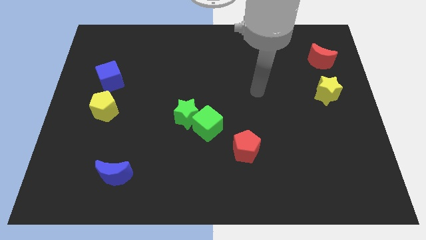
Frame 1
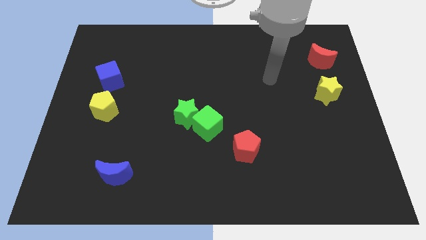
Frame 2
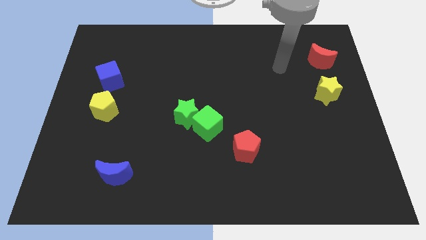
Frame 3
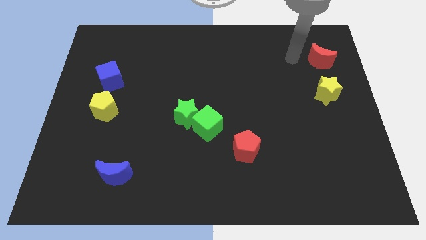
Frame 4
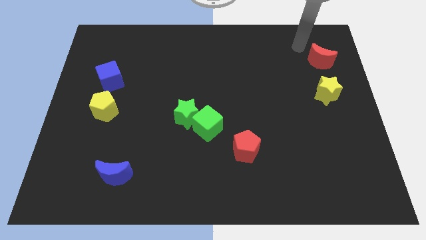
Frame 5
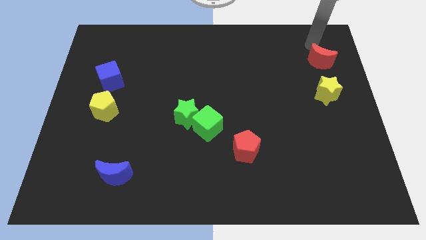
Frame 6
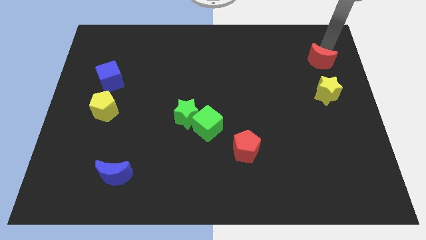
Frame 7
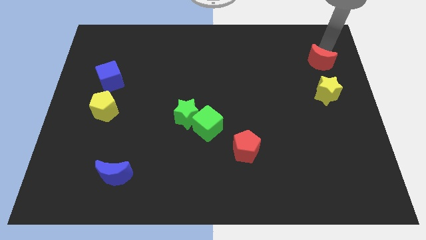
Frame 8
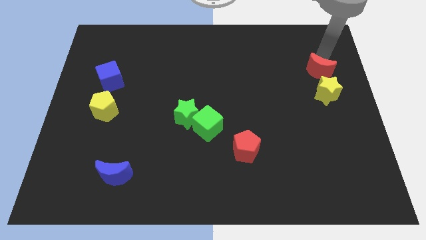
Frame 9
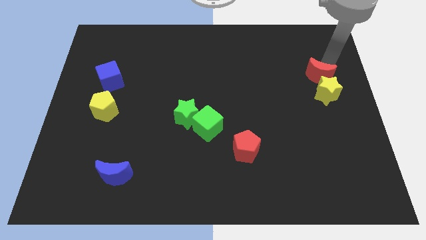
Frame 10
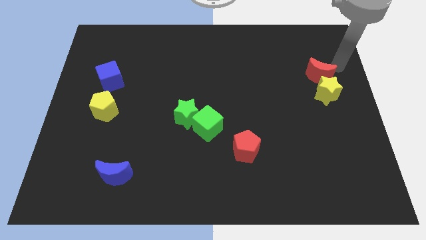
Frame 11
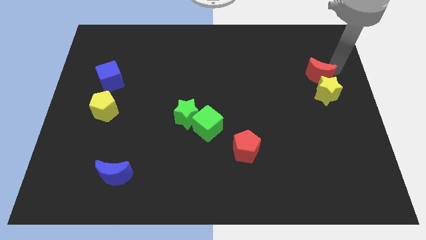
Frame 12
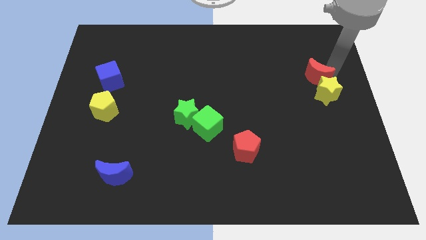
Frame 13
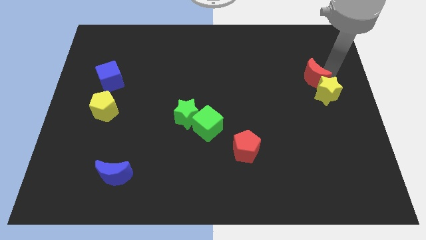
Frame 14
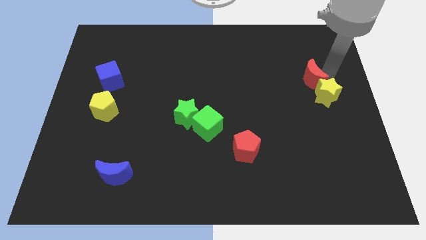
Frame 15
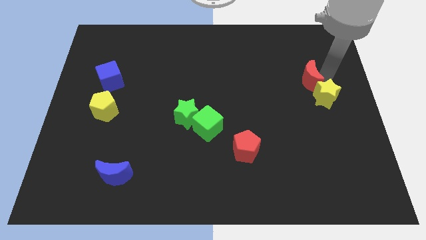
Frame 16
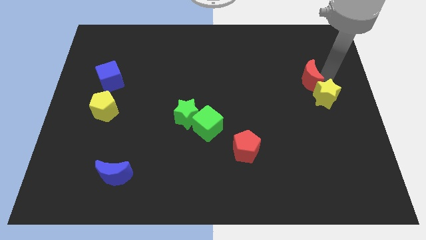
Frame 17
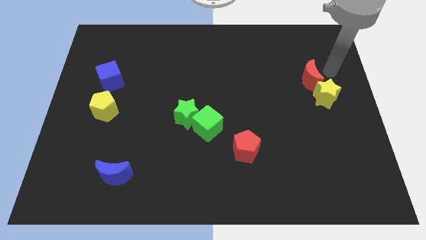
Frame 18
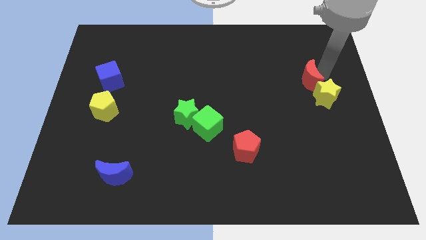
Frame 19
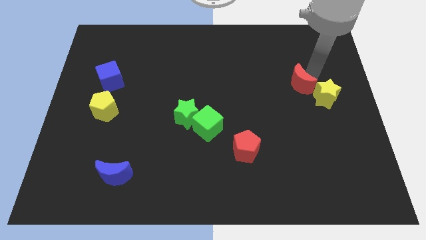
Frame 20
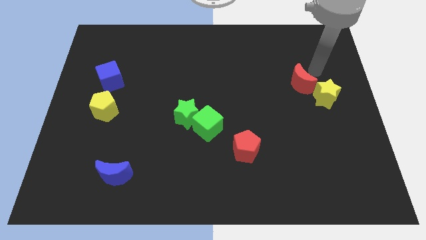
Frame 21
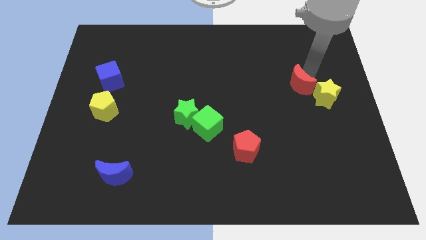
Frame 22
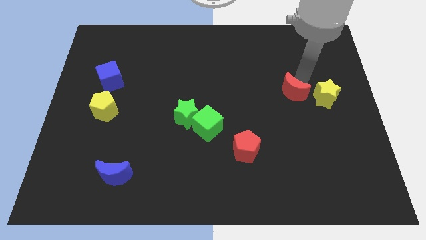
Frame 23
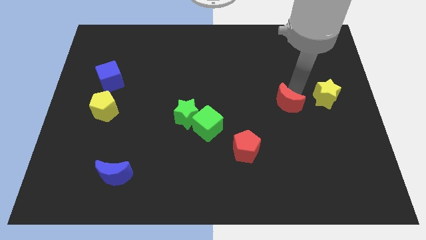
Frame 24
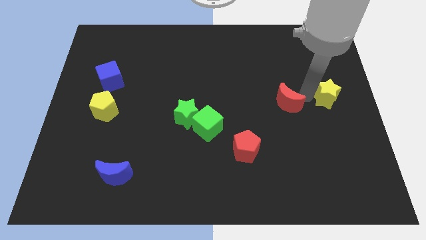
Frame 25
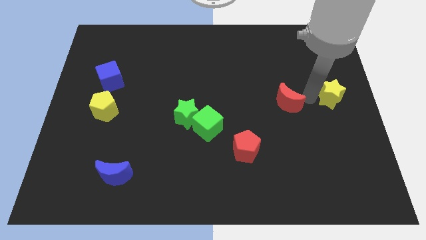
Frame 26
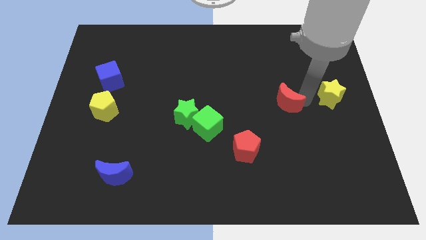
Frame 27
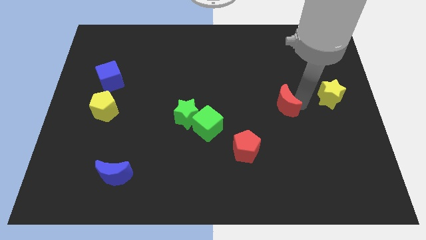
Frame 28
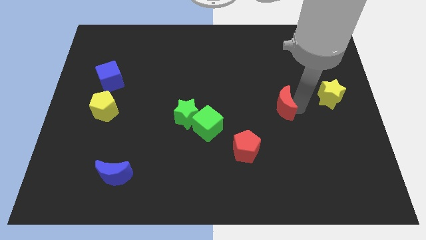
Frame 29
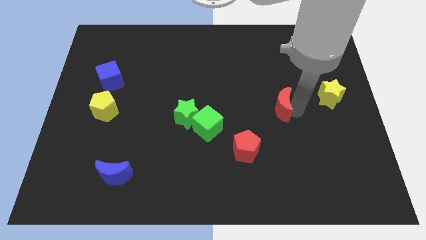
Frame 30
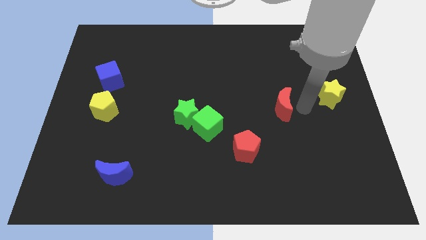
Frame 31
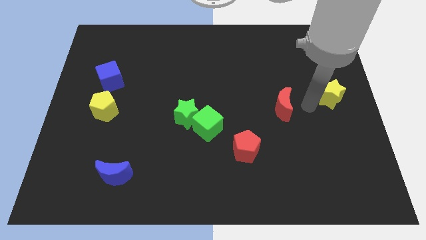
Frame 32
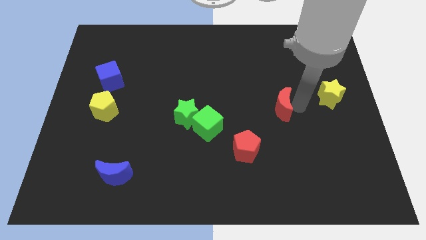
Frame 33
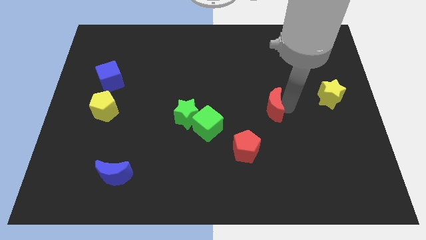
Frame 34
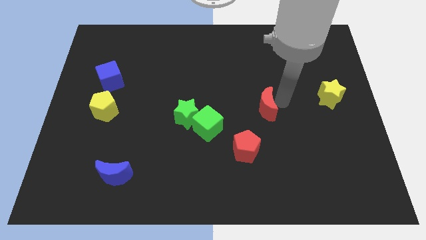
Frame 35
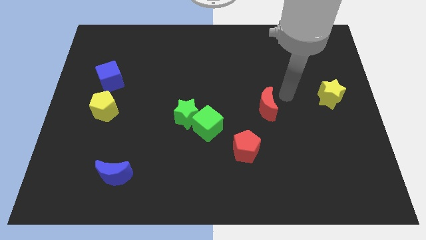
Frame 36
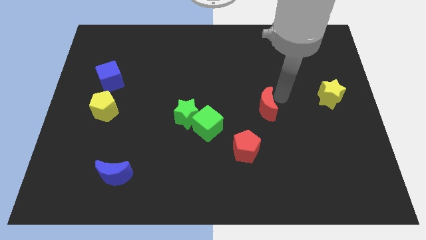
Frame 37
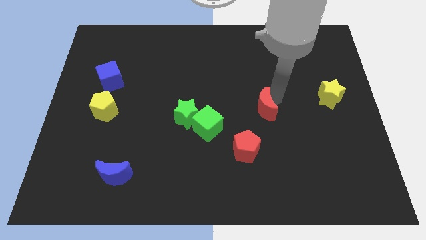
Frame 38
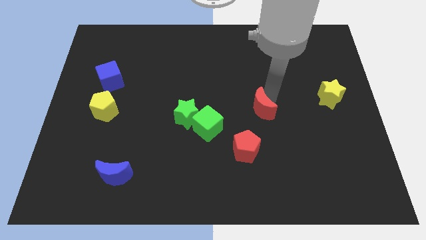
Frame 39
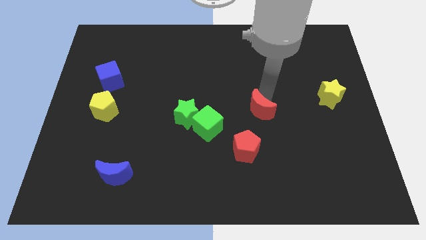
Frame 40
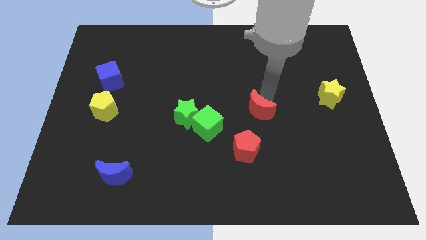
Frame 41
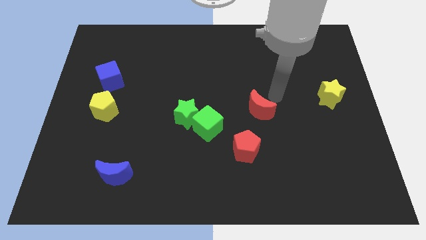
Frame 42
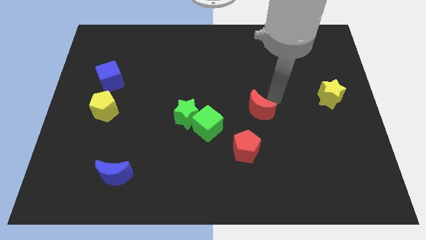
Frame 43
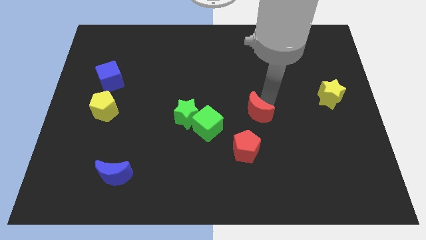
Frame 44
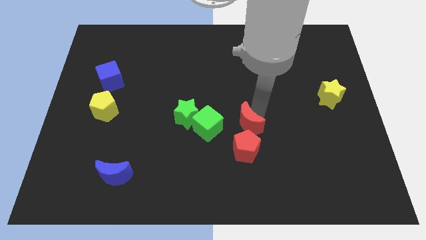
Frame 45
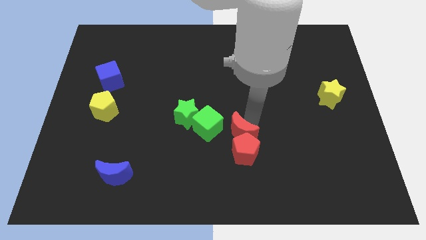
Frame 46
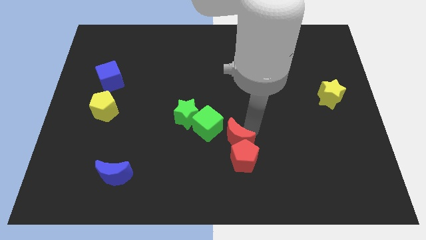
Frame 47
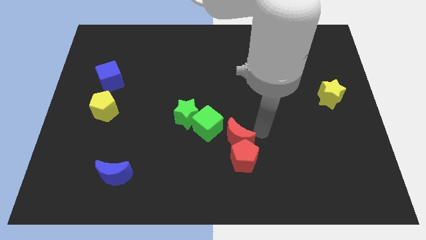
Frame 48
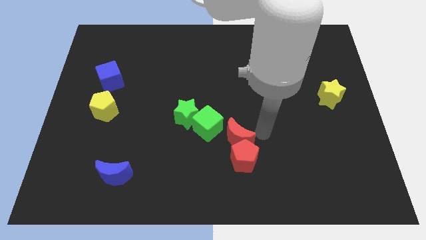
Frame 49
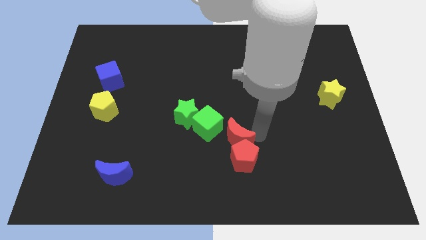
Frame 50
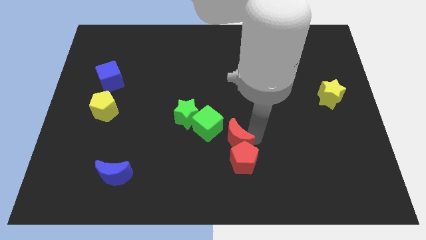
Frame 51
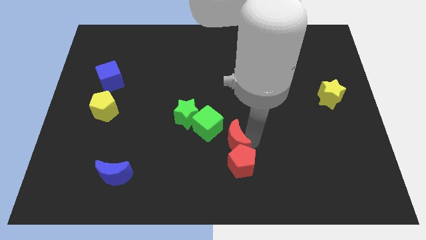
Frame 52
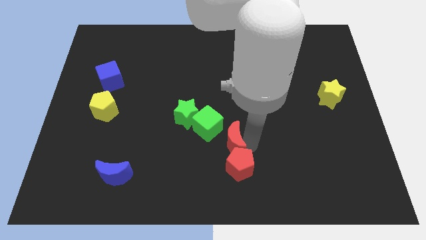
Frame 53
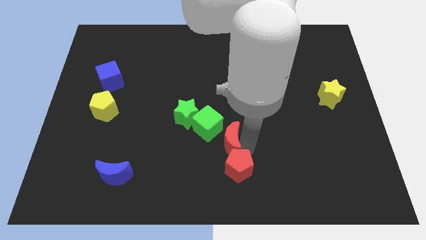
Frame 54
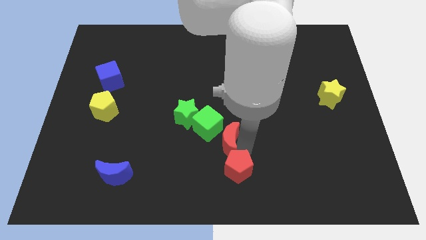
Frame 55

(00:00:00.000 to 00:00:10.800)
push the red moon to the bottom of the green cube

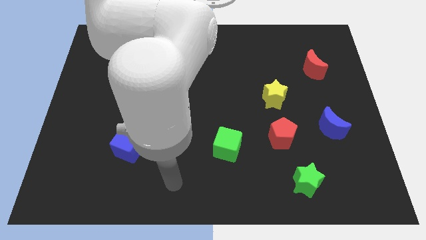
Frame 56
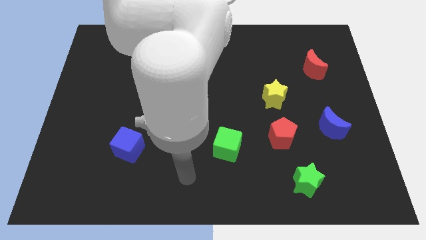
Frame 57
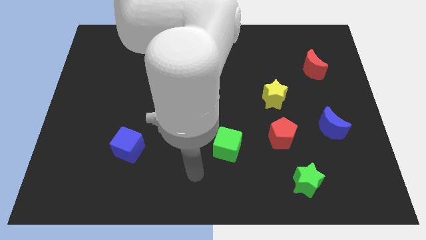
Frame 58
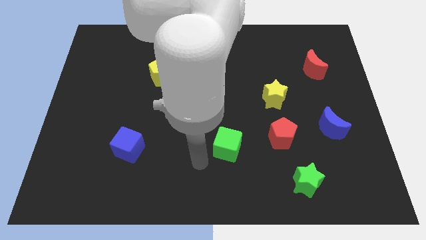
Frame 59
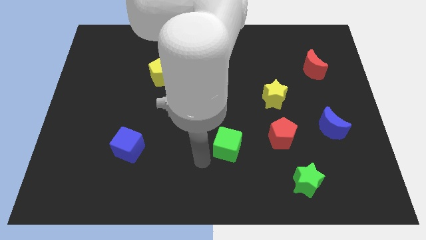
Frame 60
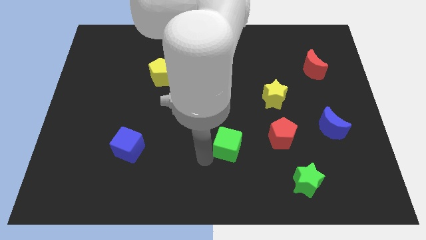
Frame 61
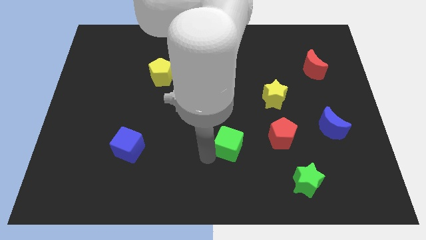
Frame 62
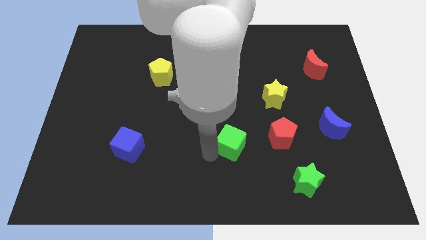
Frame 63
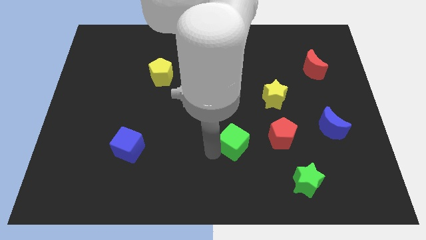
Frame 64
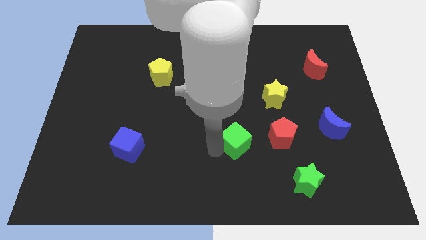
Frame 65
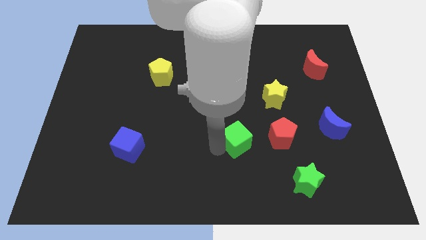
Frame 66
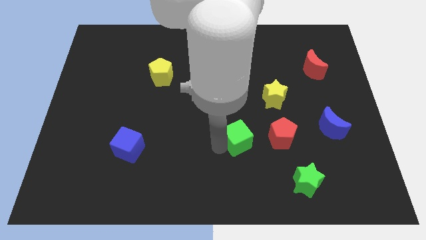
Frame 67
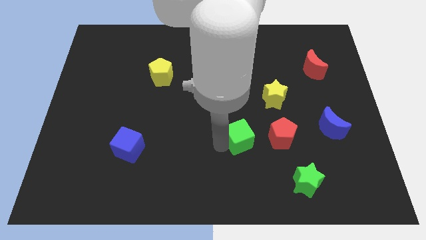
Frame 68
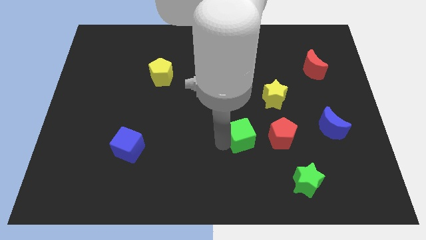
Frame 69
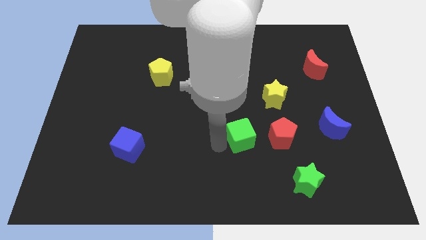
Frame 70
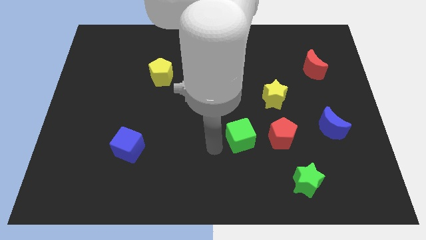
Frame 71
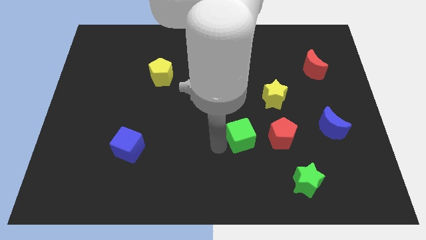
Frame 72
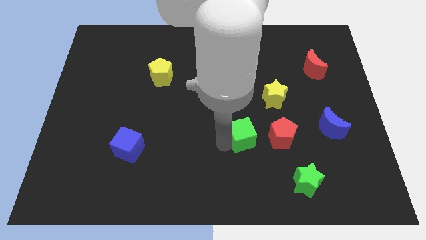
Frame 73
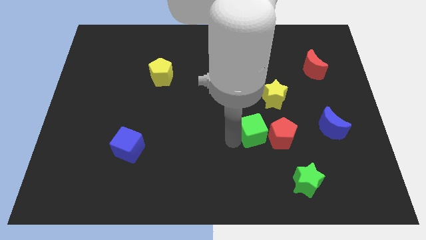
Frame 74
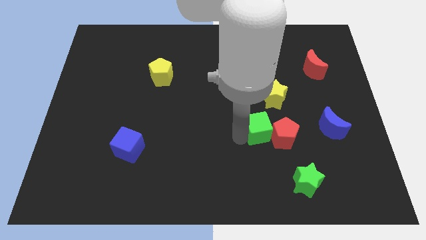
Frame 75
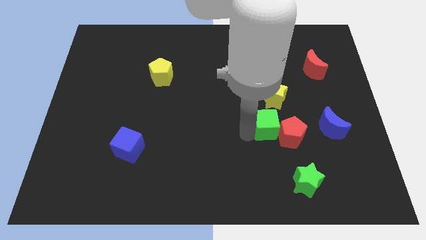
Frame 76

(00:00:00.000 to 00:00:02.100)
move the green cube left of the blue moon
